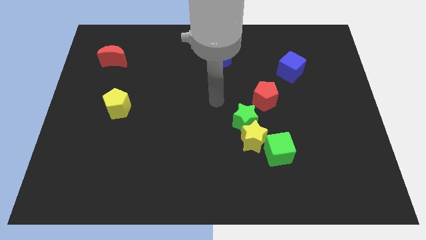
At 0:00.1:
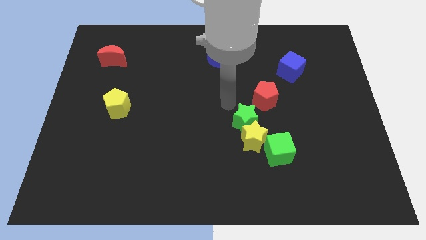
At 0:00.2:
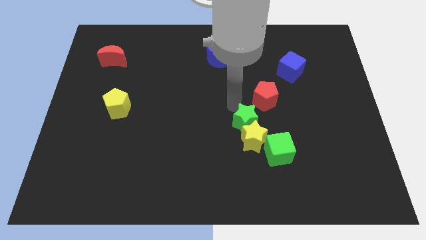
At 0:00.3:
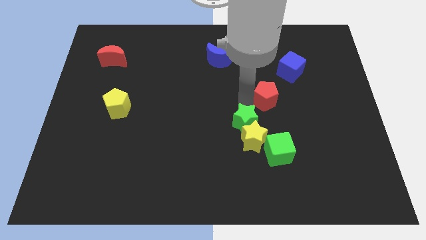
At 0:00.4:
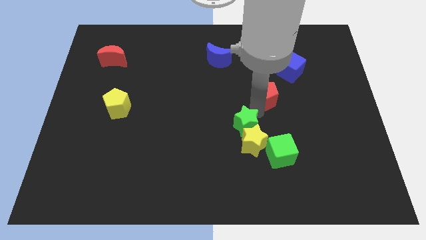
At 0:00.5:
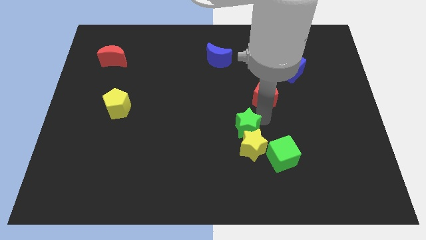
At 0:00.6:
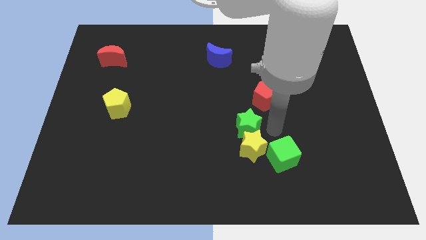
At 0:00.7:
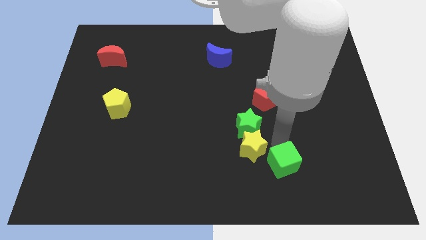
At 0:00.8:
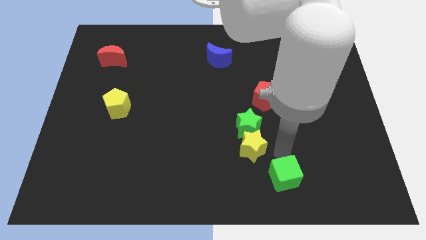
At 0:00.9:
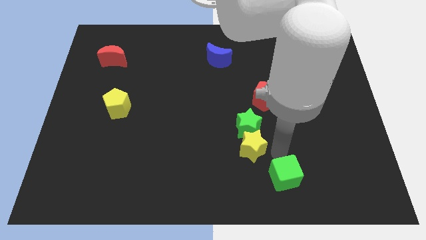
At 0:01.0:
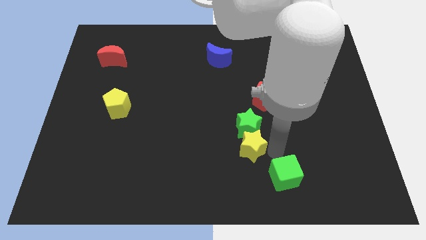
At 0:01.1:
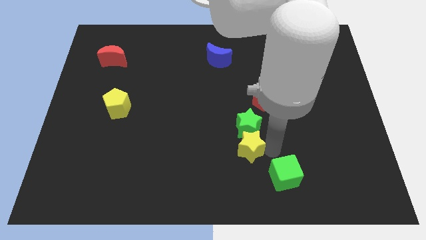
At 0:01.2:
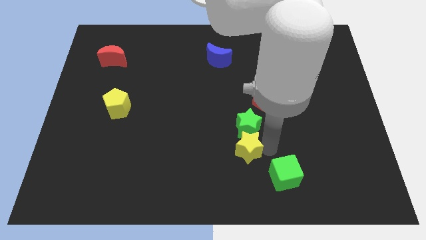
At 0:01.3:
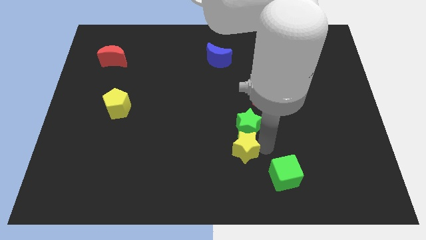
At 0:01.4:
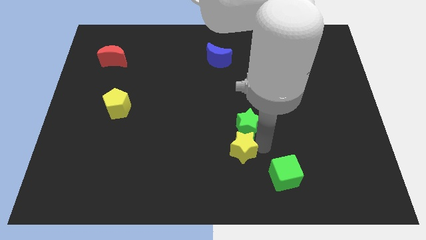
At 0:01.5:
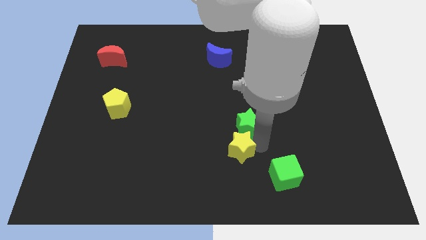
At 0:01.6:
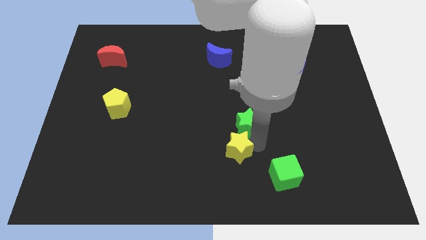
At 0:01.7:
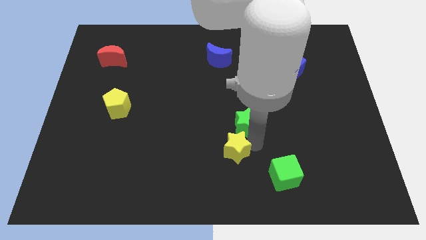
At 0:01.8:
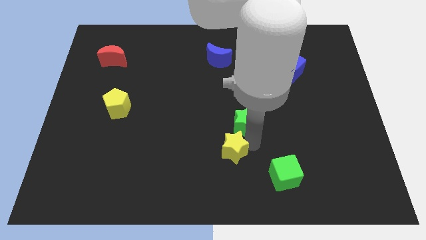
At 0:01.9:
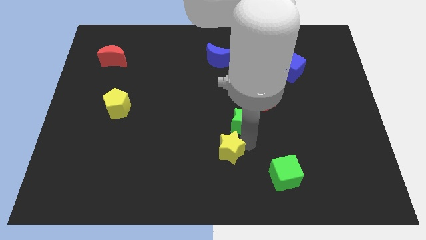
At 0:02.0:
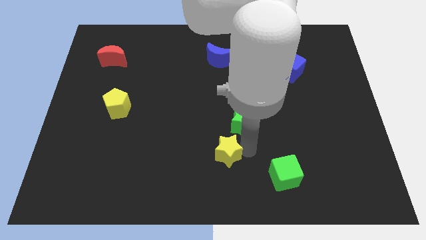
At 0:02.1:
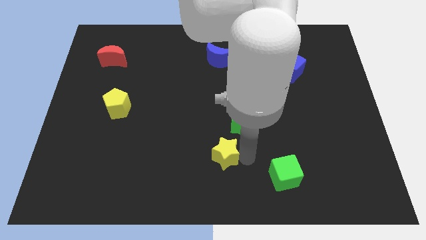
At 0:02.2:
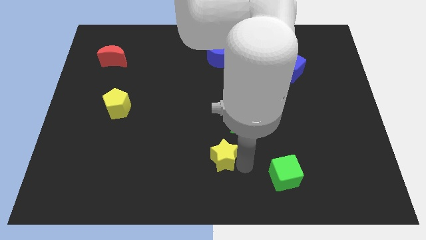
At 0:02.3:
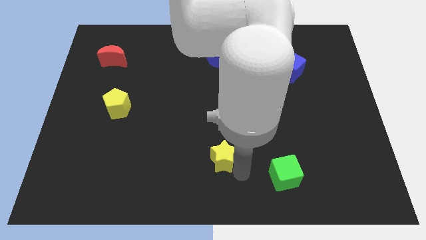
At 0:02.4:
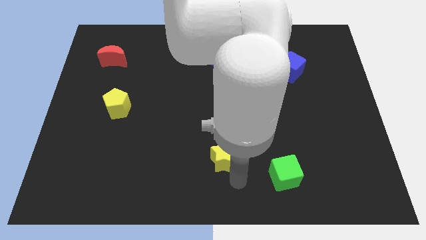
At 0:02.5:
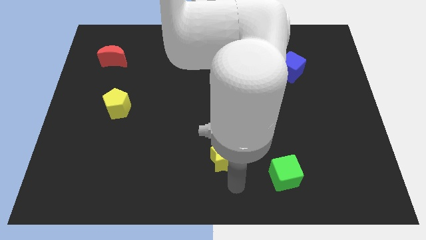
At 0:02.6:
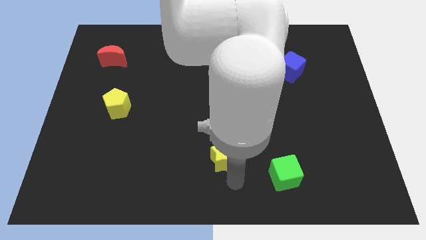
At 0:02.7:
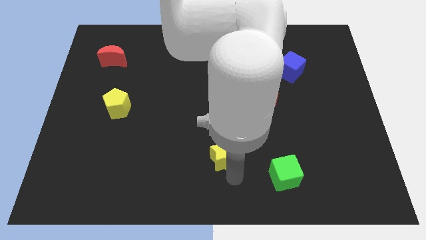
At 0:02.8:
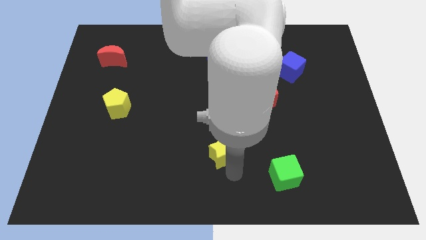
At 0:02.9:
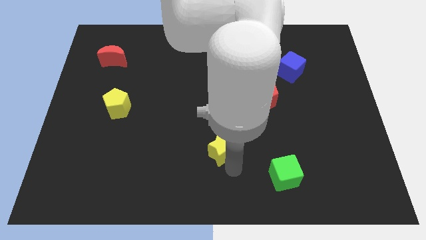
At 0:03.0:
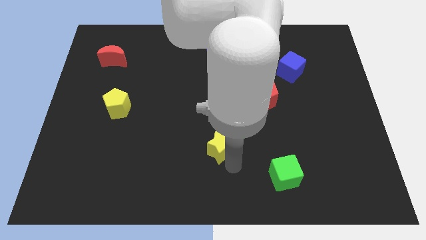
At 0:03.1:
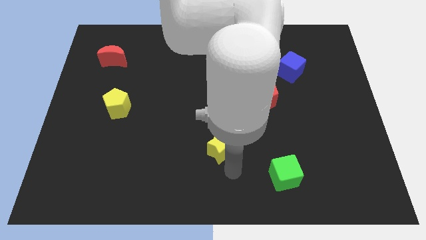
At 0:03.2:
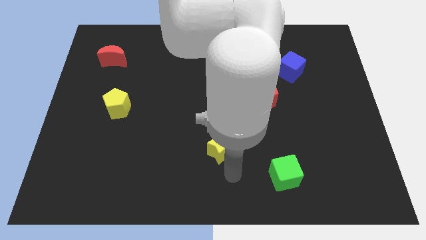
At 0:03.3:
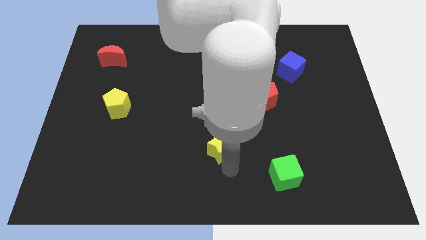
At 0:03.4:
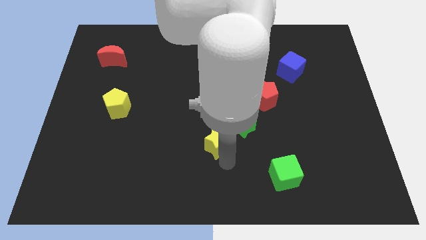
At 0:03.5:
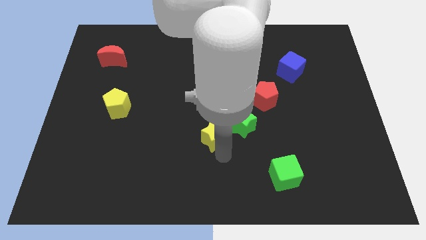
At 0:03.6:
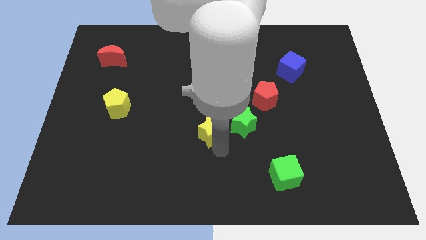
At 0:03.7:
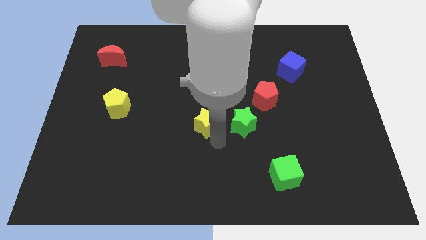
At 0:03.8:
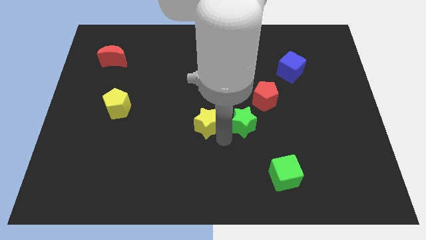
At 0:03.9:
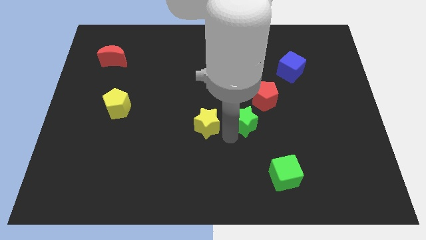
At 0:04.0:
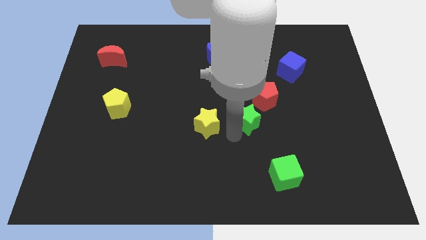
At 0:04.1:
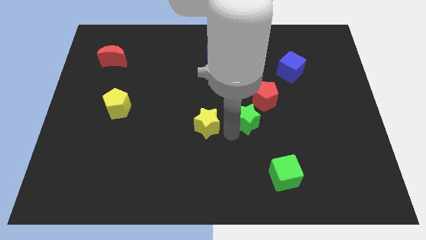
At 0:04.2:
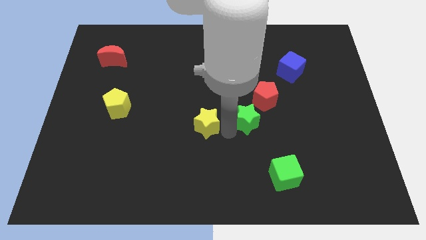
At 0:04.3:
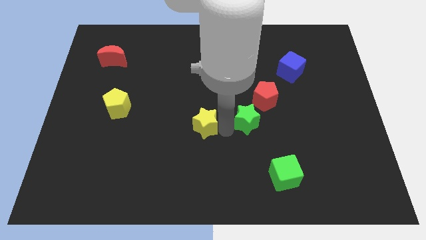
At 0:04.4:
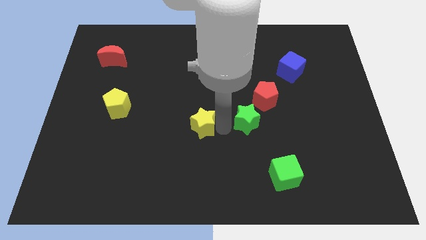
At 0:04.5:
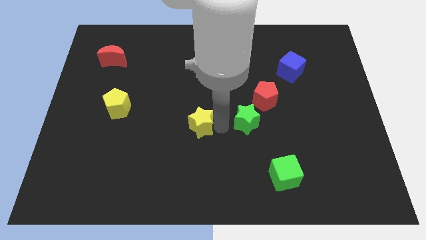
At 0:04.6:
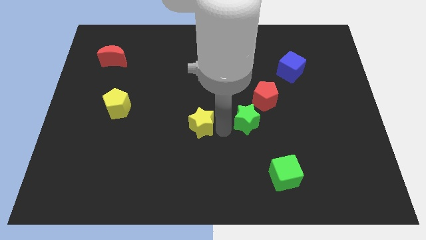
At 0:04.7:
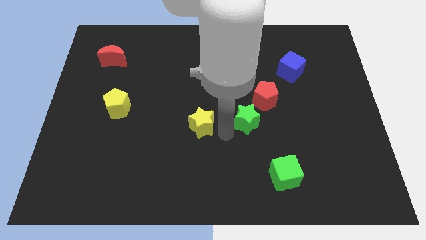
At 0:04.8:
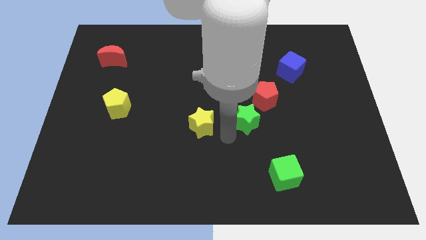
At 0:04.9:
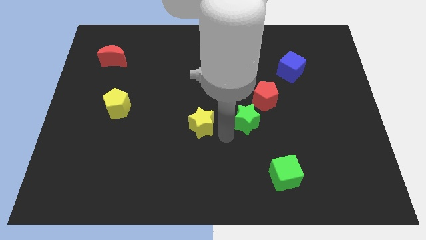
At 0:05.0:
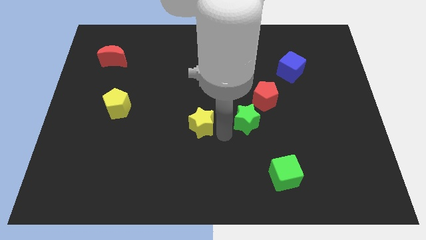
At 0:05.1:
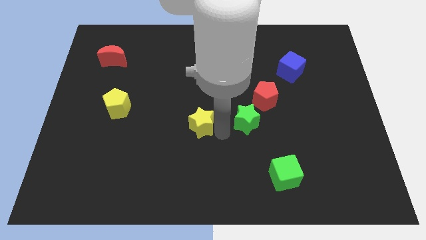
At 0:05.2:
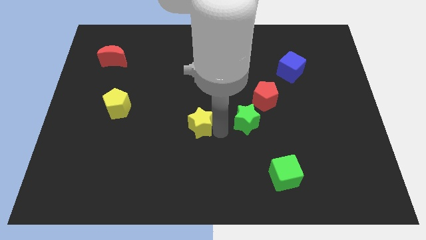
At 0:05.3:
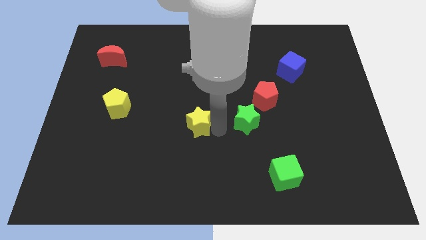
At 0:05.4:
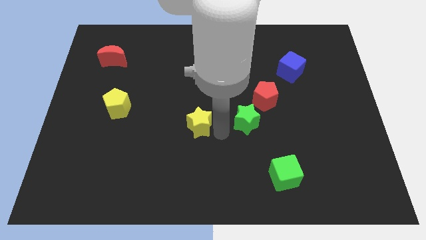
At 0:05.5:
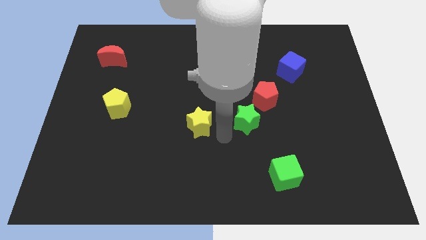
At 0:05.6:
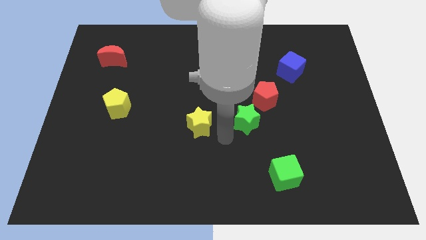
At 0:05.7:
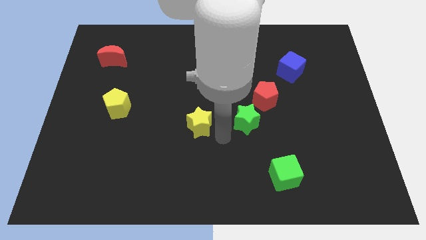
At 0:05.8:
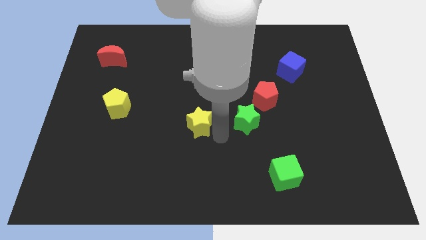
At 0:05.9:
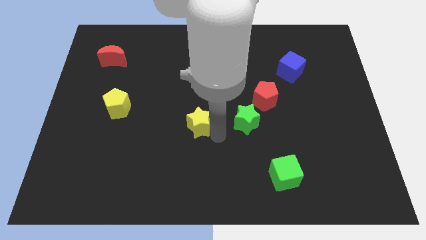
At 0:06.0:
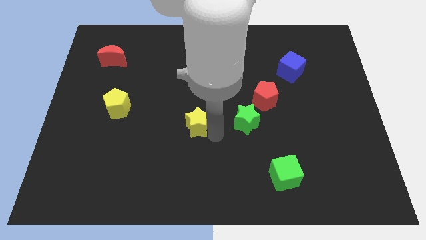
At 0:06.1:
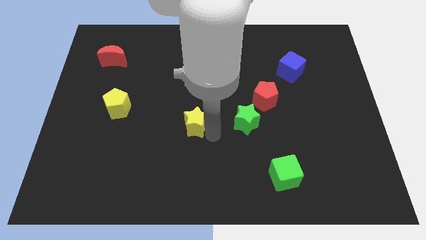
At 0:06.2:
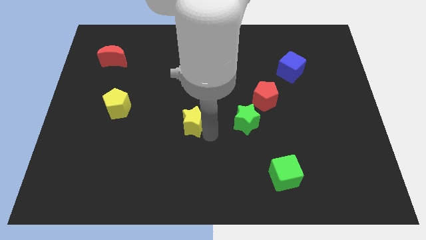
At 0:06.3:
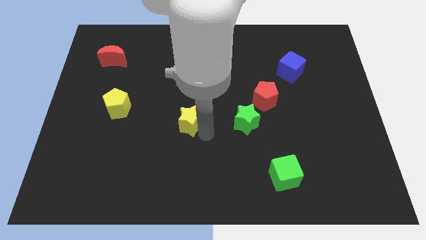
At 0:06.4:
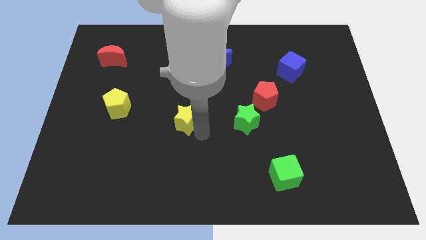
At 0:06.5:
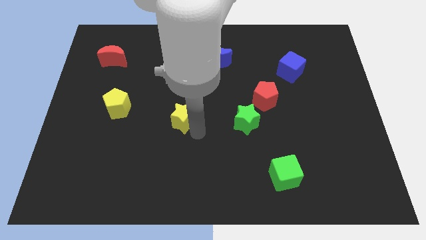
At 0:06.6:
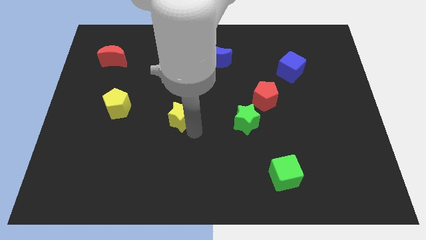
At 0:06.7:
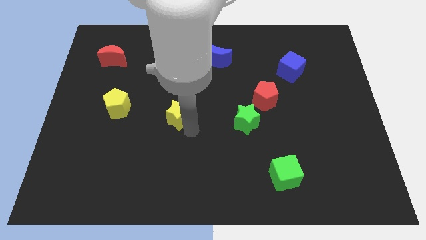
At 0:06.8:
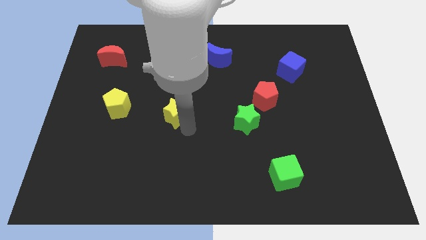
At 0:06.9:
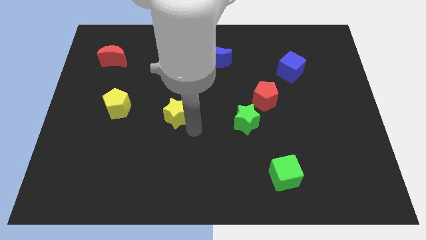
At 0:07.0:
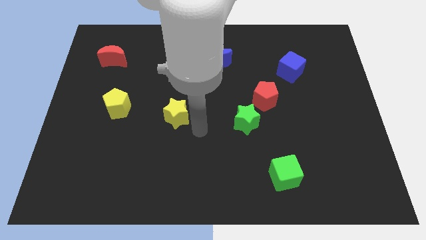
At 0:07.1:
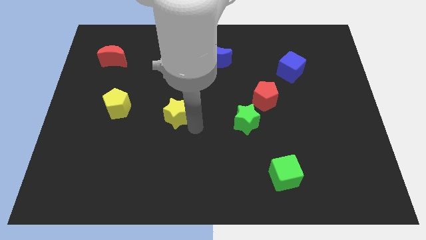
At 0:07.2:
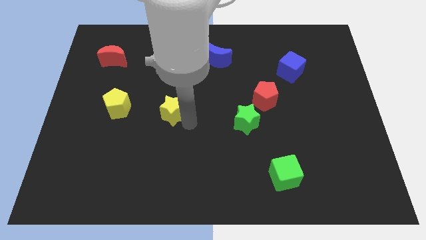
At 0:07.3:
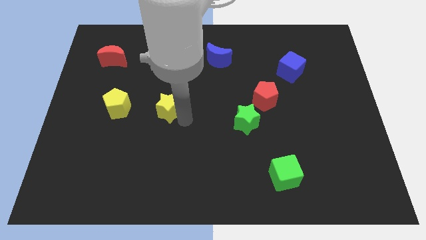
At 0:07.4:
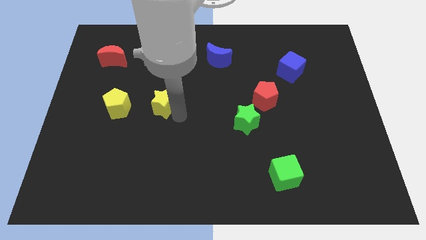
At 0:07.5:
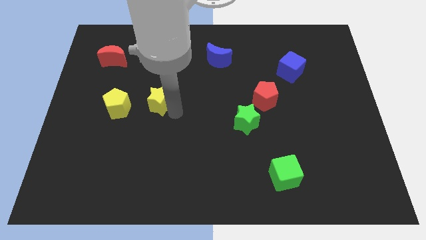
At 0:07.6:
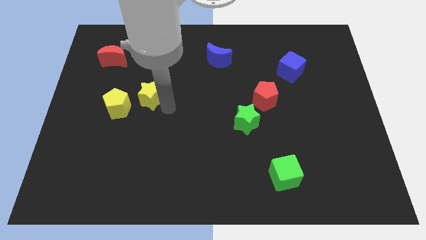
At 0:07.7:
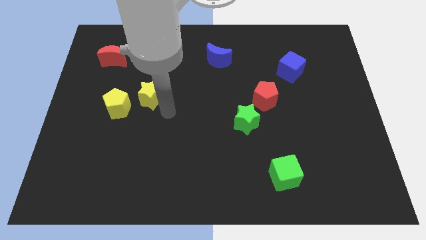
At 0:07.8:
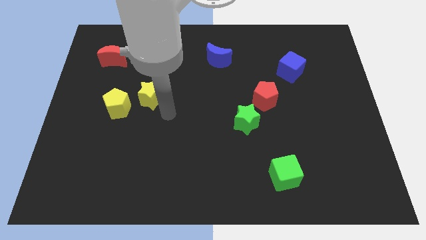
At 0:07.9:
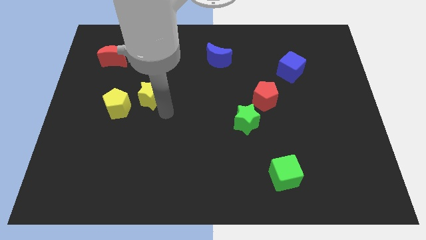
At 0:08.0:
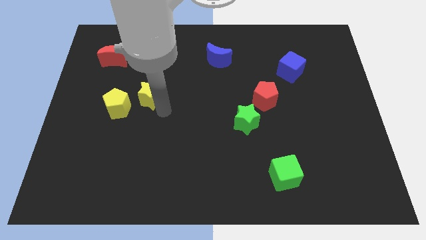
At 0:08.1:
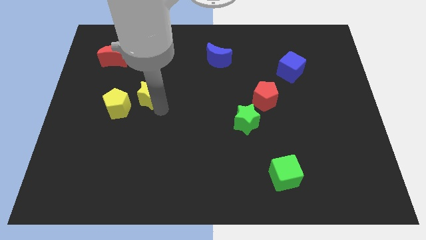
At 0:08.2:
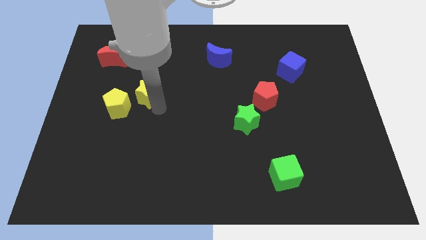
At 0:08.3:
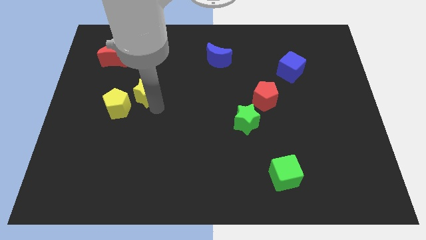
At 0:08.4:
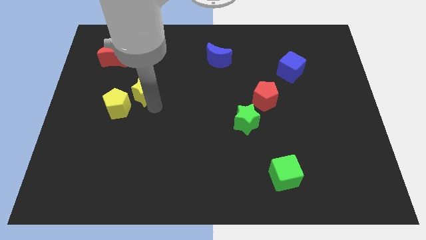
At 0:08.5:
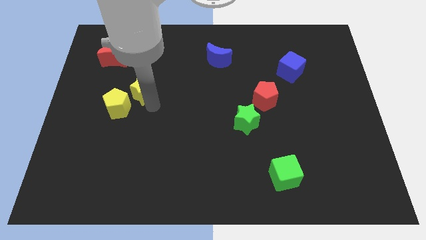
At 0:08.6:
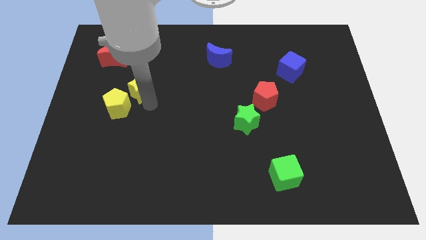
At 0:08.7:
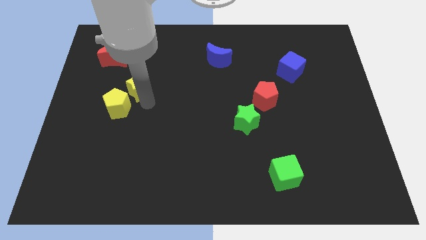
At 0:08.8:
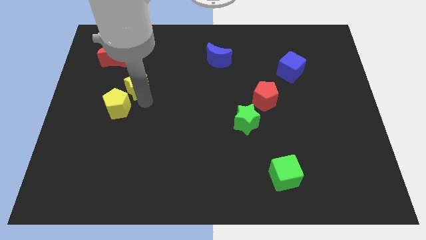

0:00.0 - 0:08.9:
put the yellow star to the bottom right of the red moon
